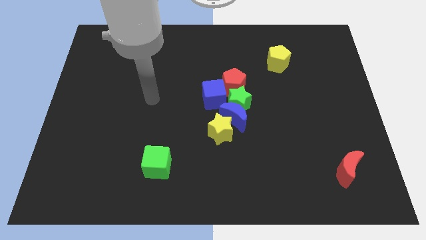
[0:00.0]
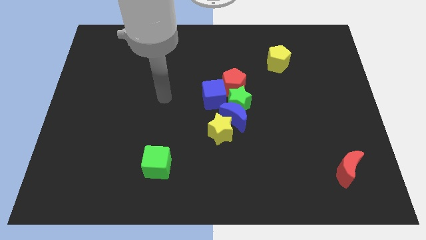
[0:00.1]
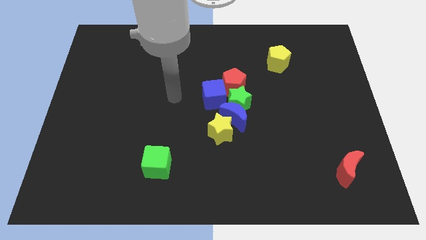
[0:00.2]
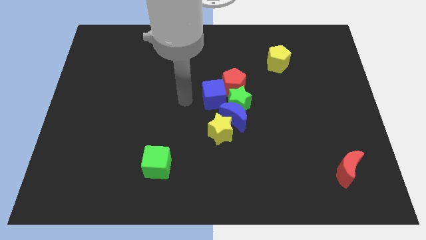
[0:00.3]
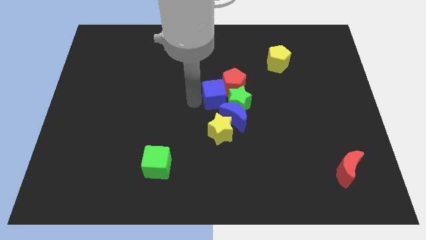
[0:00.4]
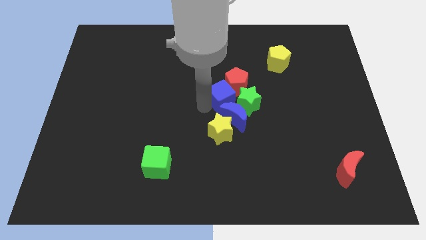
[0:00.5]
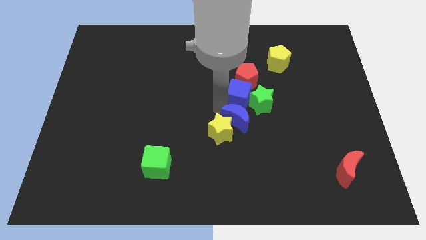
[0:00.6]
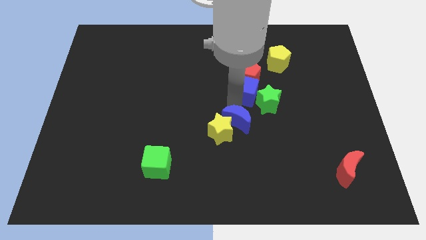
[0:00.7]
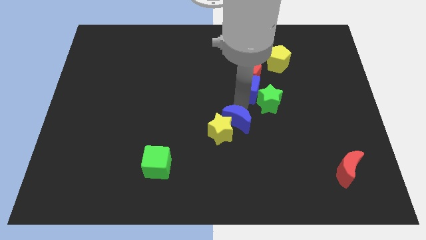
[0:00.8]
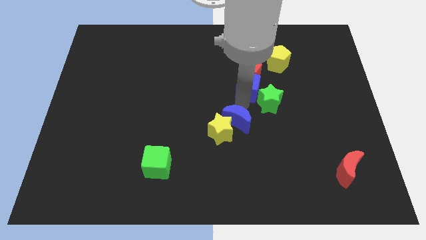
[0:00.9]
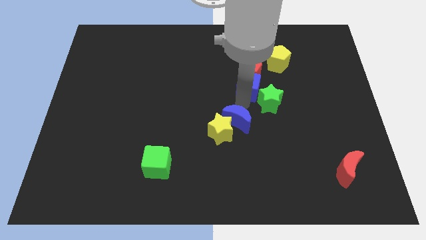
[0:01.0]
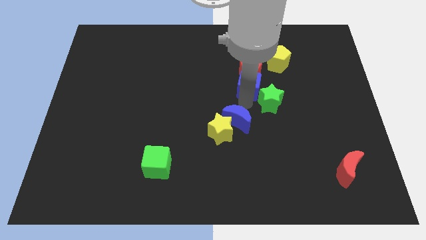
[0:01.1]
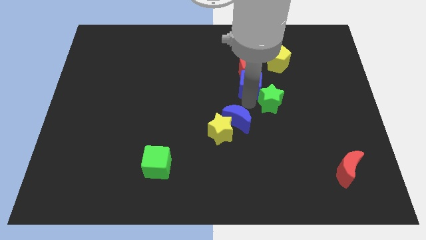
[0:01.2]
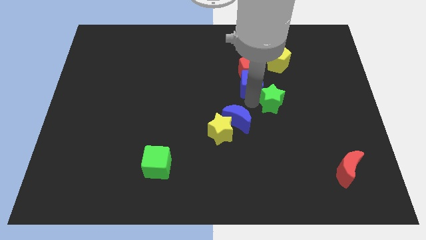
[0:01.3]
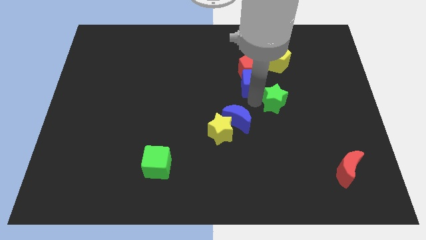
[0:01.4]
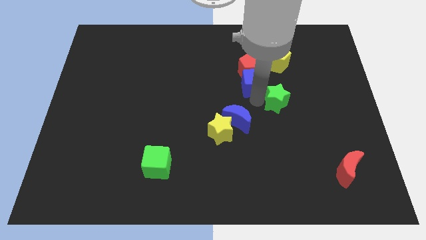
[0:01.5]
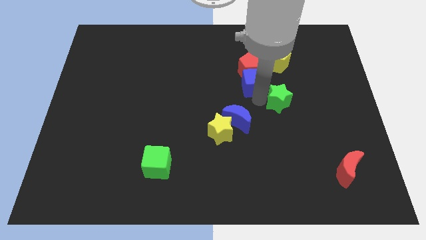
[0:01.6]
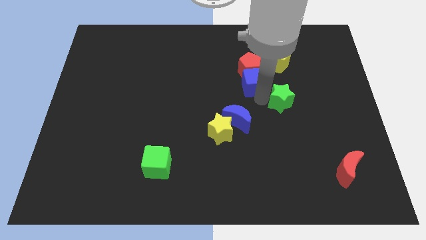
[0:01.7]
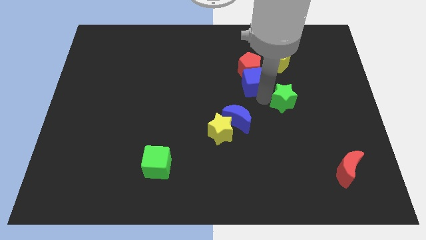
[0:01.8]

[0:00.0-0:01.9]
move the green star away from the clump

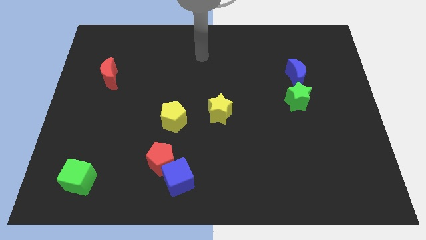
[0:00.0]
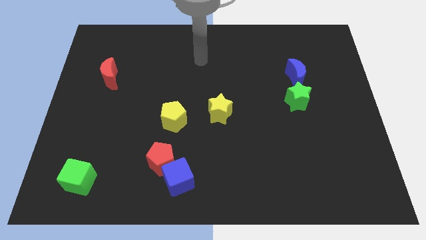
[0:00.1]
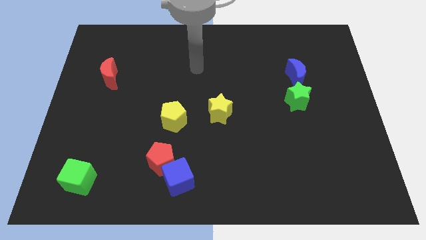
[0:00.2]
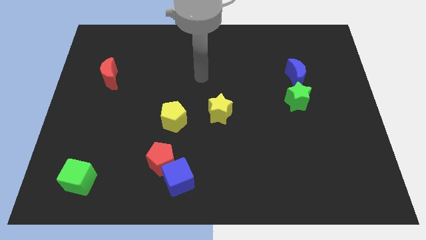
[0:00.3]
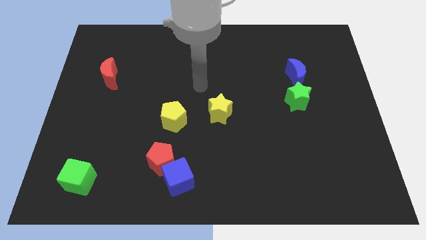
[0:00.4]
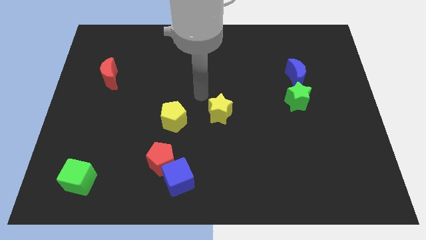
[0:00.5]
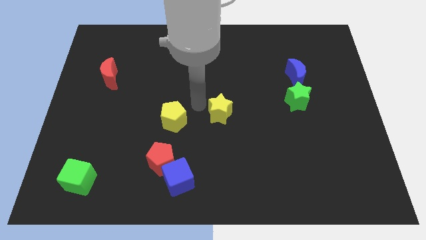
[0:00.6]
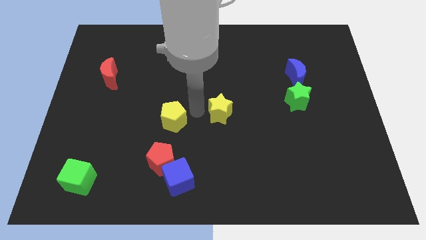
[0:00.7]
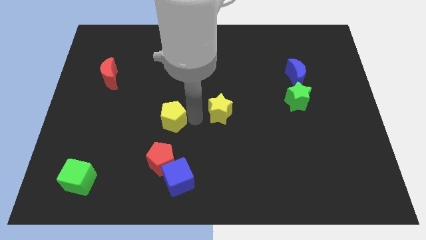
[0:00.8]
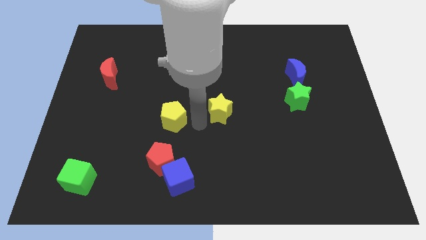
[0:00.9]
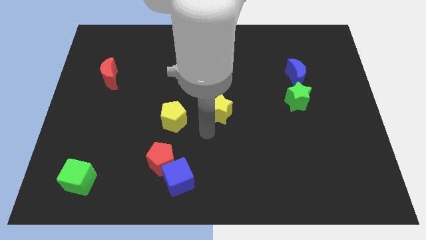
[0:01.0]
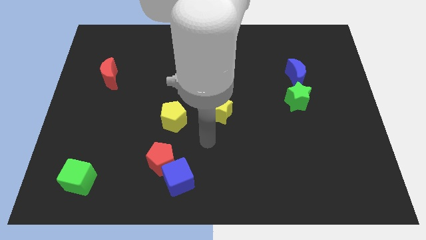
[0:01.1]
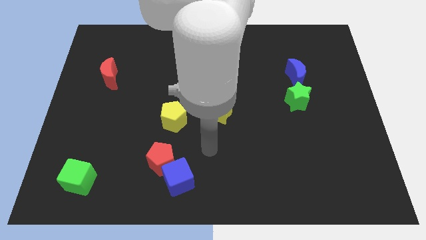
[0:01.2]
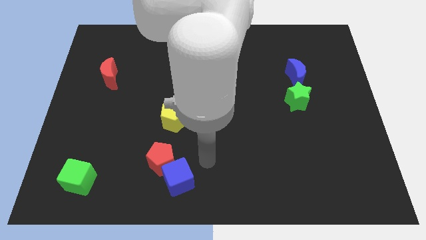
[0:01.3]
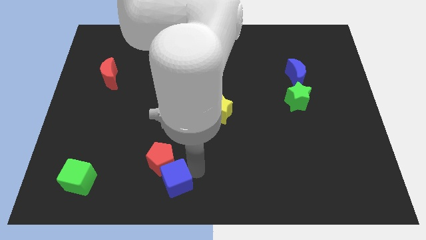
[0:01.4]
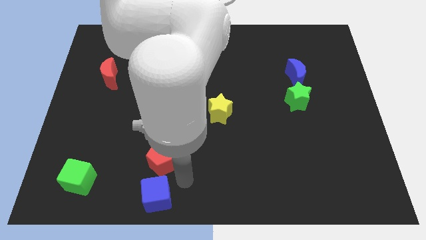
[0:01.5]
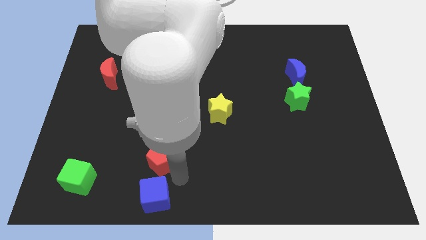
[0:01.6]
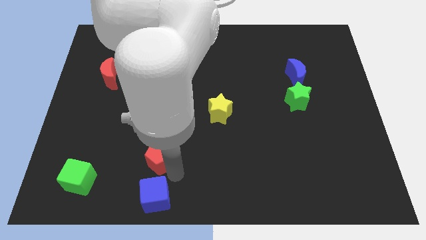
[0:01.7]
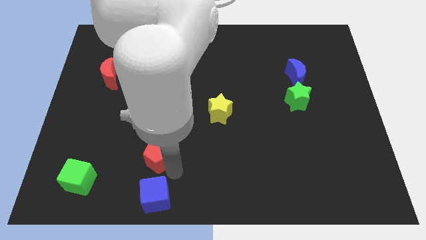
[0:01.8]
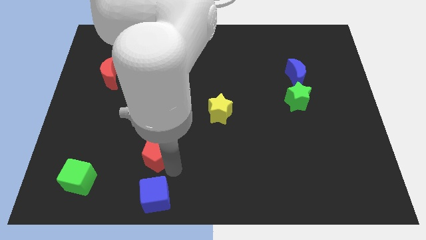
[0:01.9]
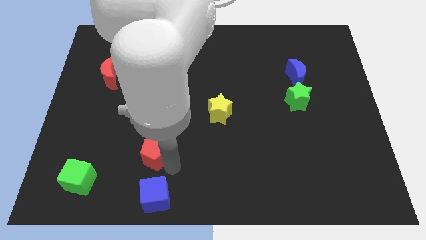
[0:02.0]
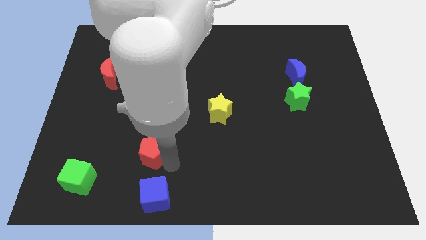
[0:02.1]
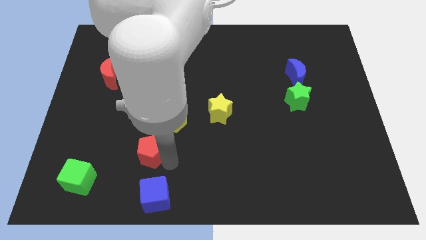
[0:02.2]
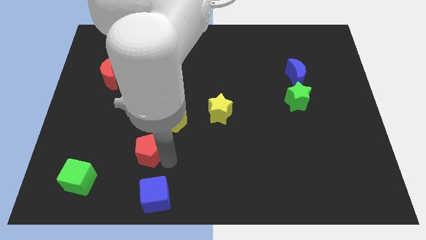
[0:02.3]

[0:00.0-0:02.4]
pull the red pentagon apart from the blue cube

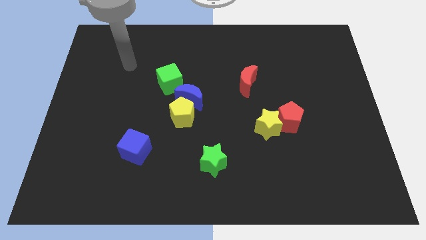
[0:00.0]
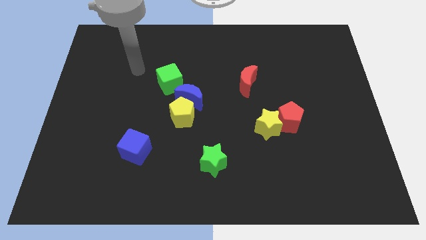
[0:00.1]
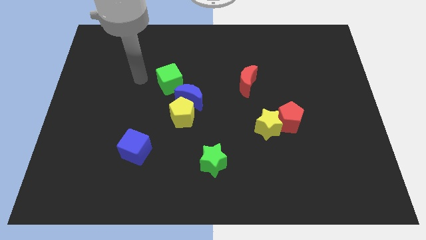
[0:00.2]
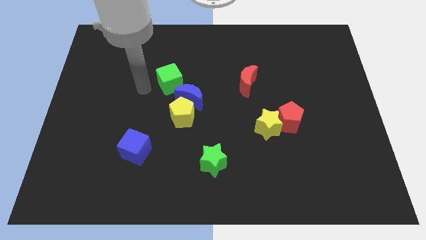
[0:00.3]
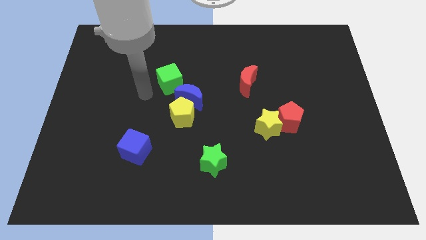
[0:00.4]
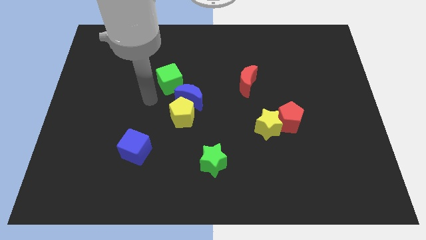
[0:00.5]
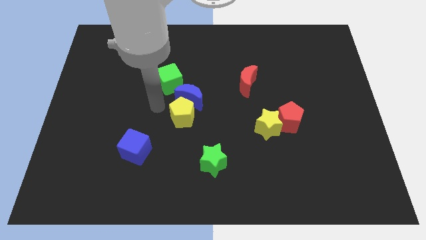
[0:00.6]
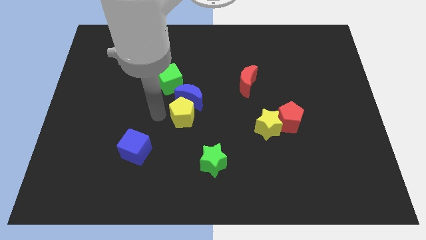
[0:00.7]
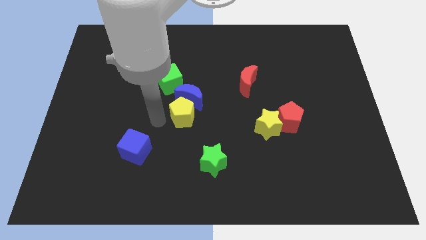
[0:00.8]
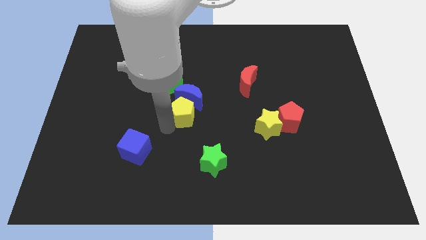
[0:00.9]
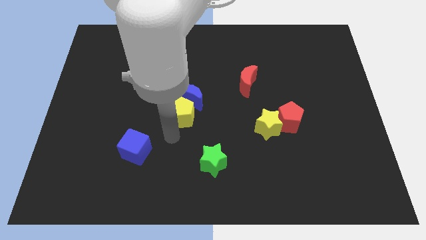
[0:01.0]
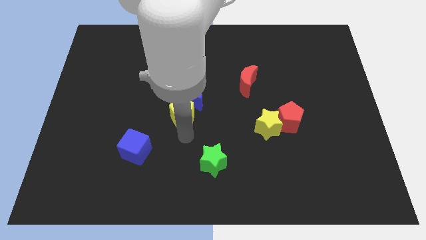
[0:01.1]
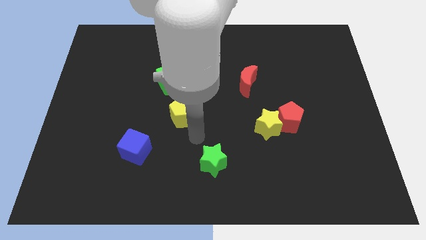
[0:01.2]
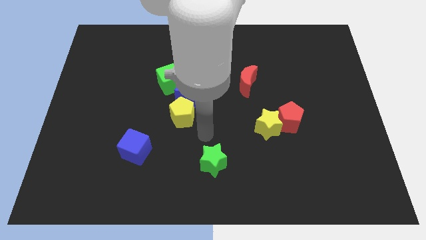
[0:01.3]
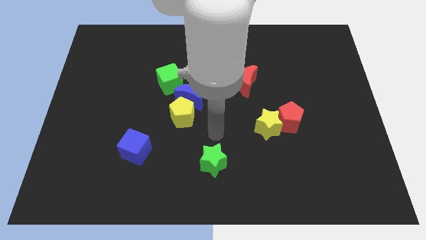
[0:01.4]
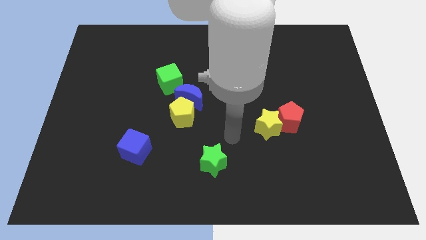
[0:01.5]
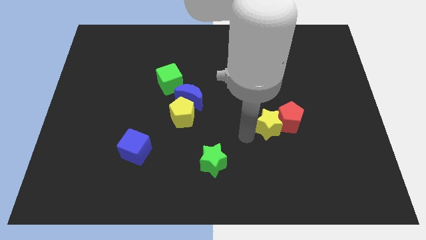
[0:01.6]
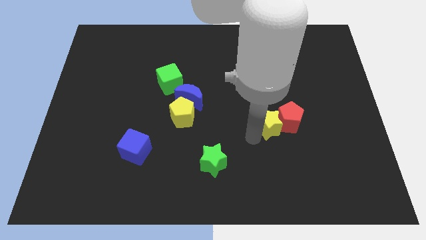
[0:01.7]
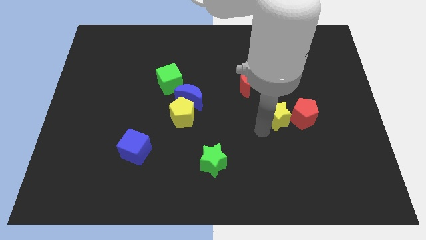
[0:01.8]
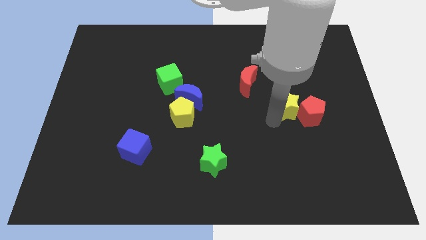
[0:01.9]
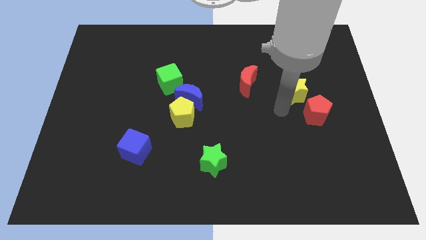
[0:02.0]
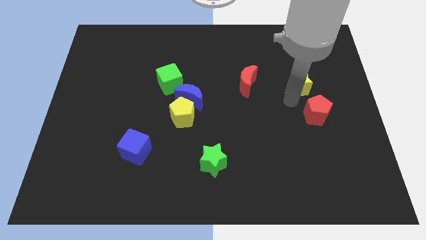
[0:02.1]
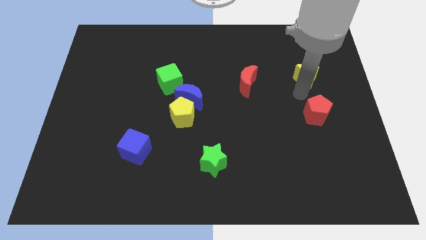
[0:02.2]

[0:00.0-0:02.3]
separate the red pentagon from the yellow star

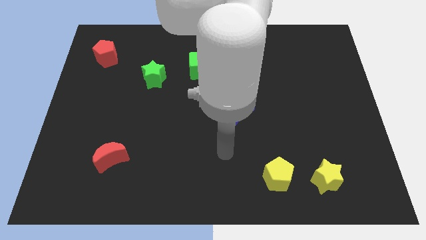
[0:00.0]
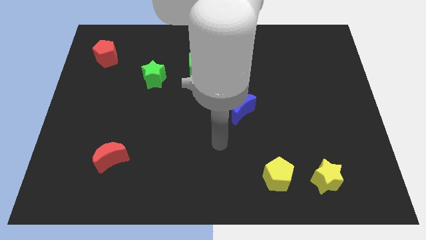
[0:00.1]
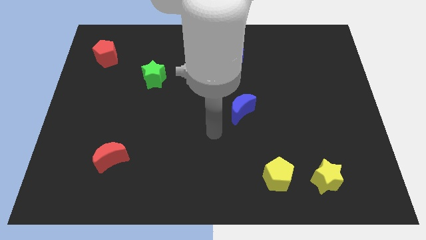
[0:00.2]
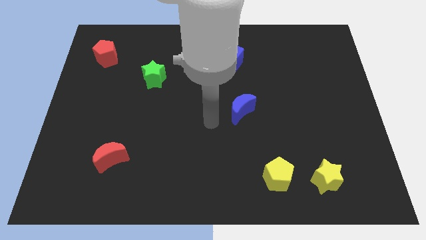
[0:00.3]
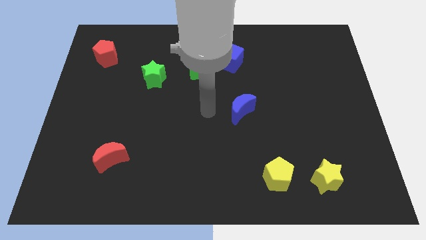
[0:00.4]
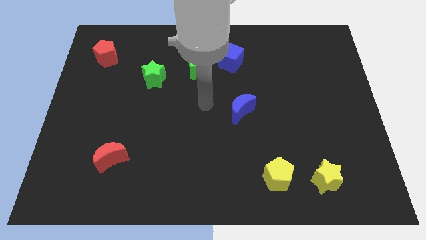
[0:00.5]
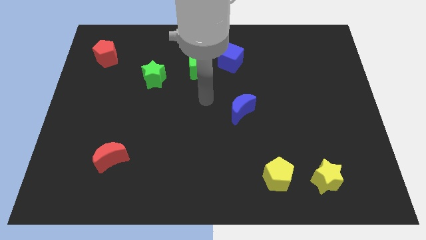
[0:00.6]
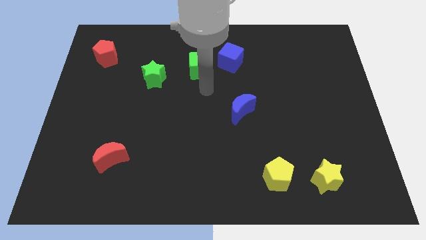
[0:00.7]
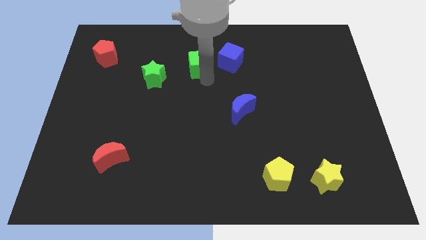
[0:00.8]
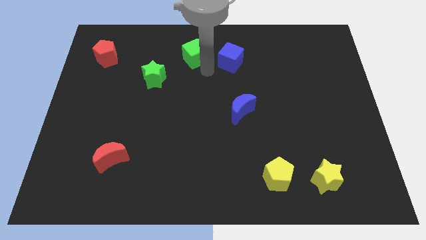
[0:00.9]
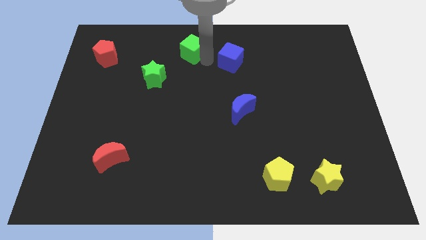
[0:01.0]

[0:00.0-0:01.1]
pull the blue cube apart from the green cube

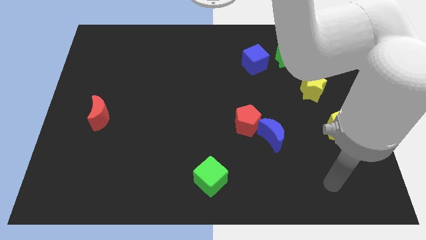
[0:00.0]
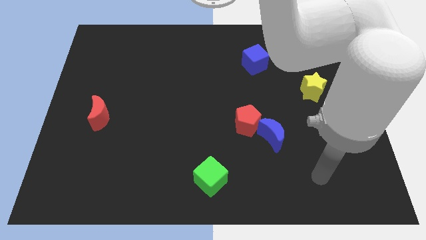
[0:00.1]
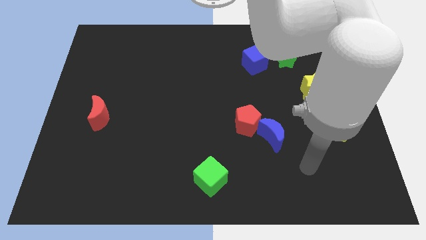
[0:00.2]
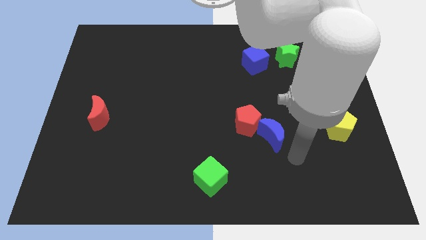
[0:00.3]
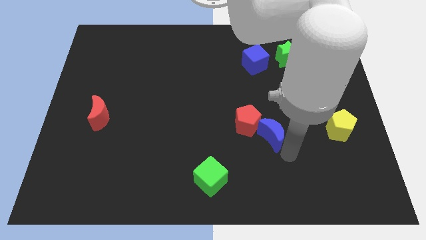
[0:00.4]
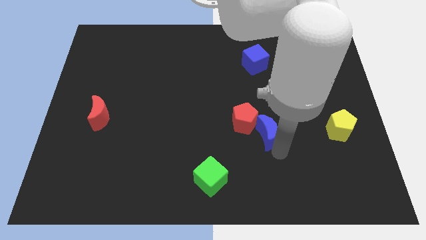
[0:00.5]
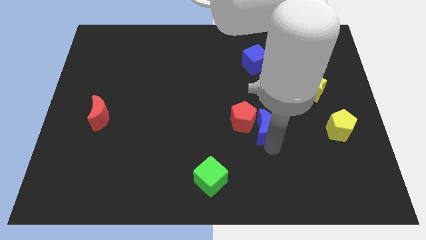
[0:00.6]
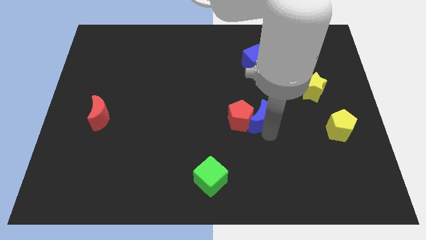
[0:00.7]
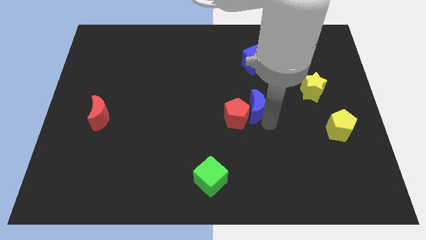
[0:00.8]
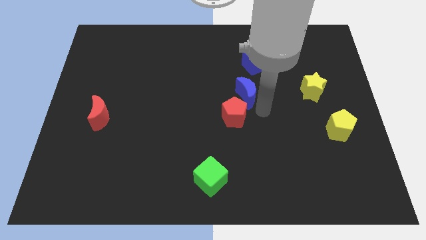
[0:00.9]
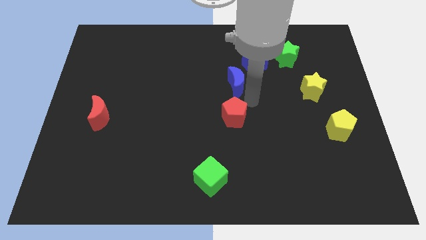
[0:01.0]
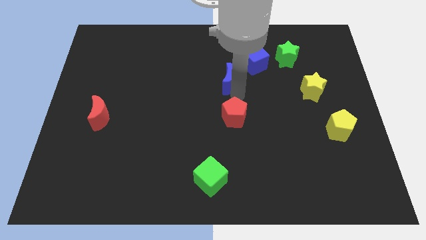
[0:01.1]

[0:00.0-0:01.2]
move the red pentagon away from the blue moon

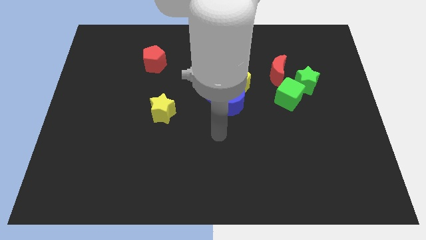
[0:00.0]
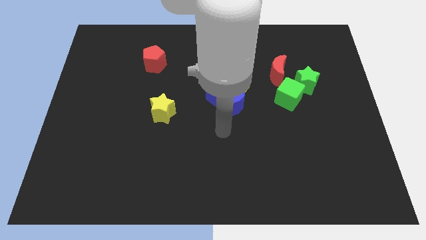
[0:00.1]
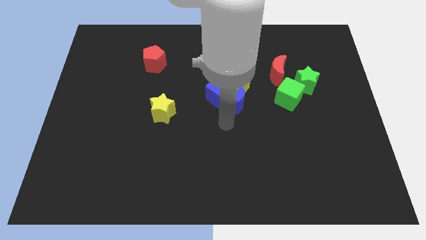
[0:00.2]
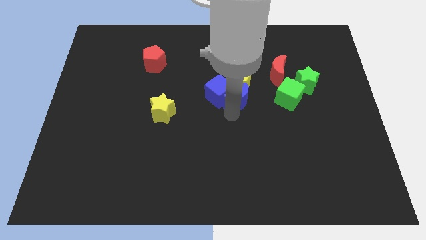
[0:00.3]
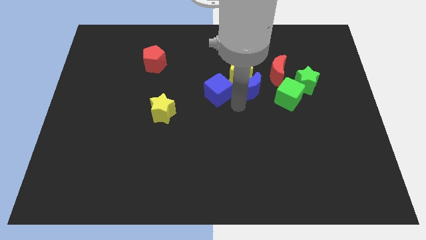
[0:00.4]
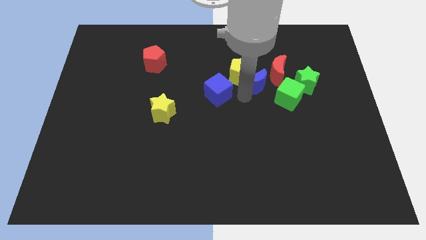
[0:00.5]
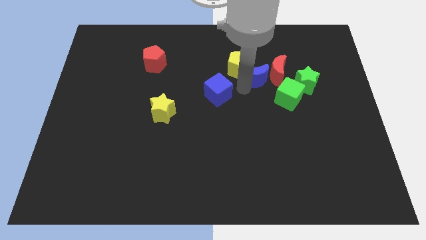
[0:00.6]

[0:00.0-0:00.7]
pull the blue cube apart from the blue moon and yellow pentagon
